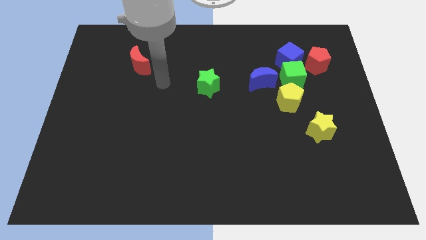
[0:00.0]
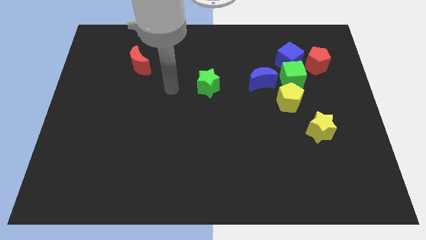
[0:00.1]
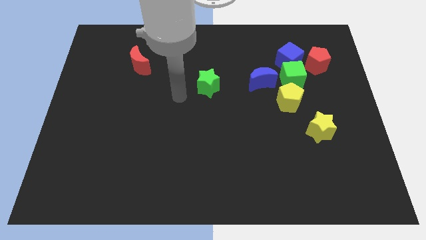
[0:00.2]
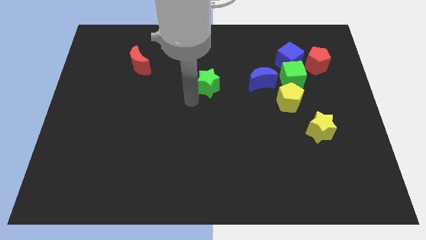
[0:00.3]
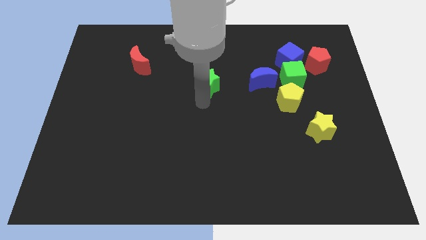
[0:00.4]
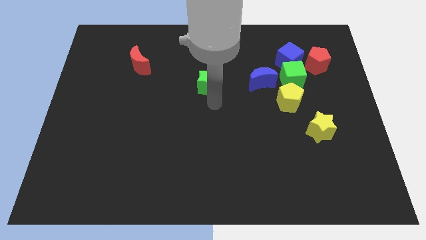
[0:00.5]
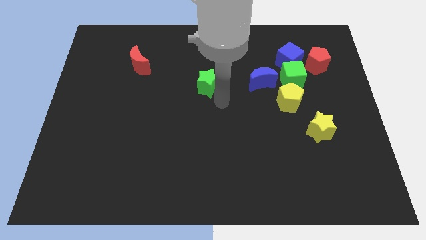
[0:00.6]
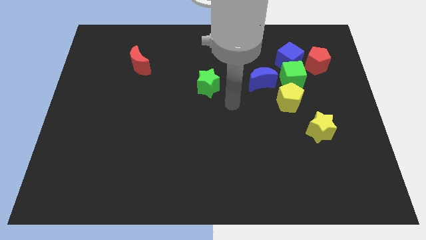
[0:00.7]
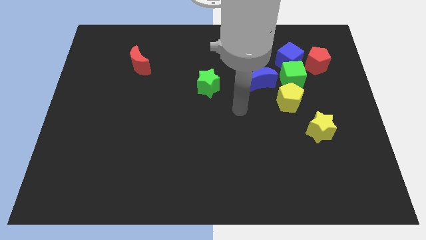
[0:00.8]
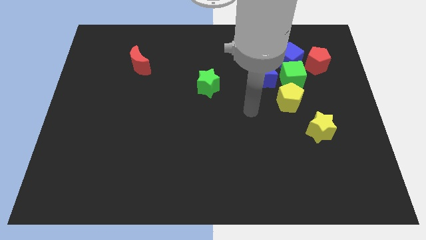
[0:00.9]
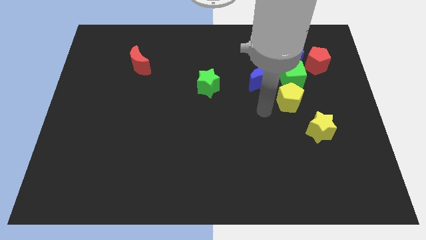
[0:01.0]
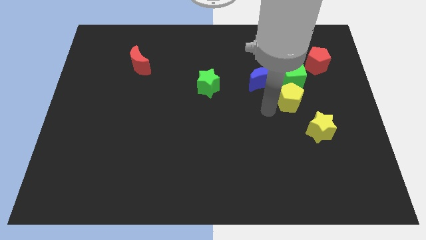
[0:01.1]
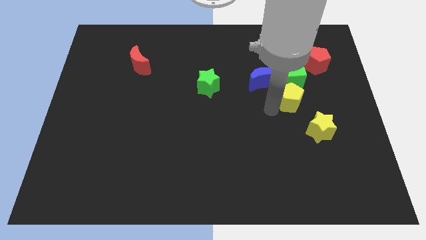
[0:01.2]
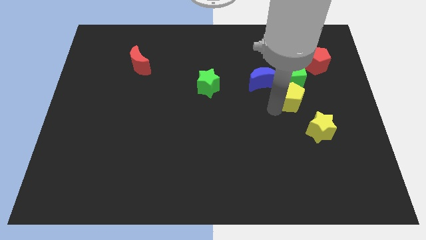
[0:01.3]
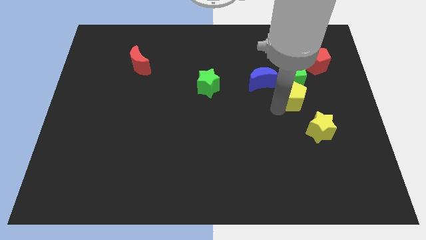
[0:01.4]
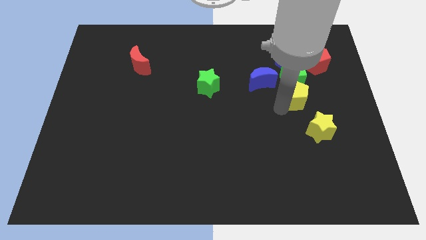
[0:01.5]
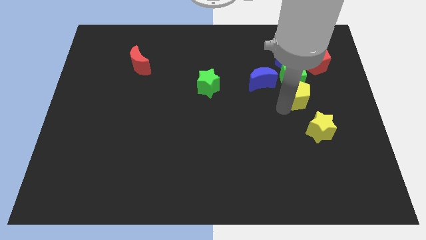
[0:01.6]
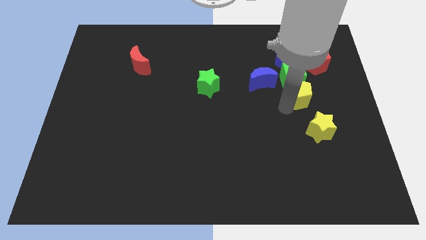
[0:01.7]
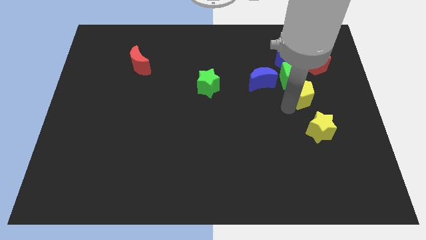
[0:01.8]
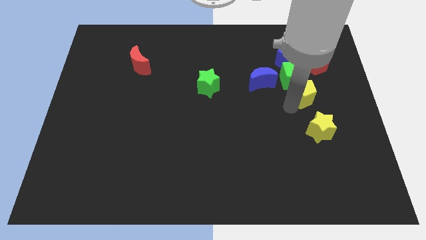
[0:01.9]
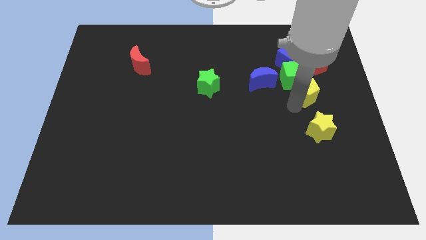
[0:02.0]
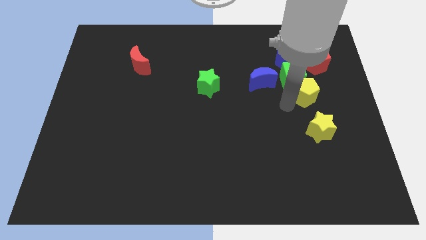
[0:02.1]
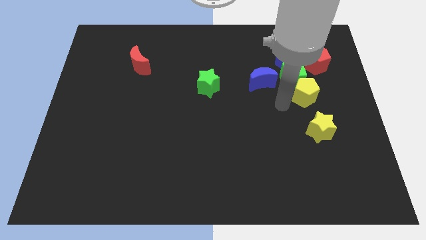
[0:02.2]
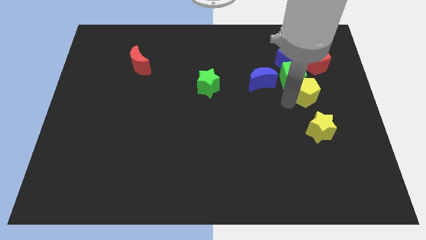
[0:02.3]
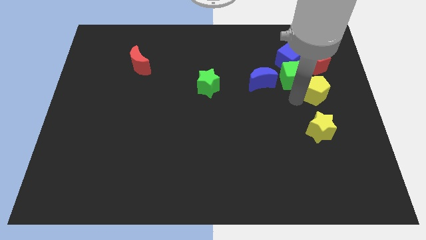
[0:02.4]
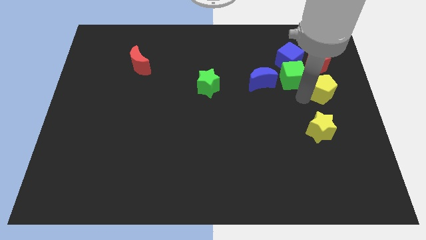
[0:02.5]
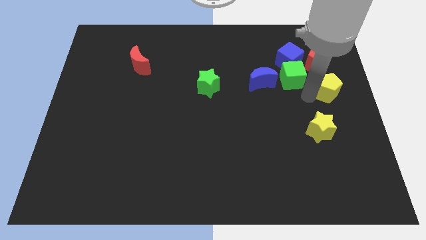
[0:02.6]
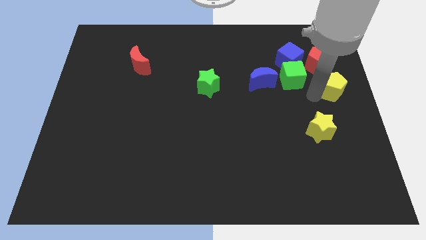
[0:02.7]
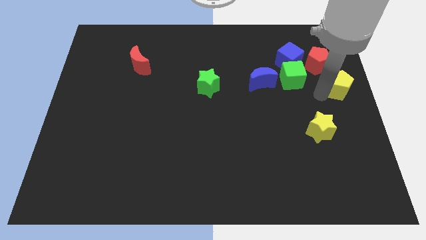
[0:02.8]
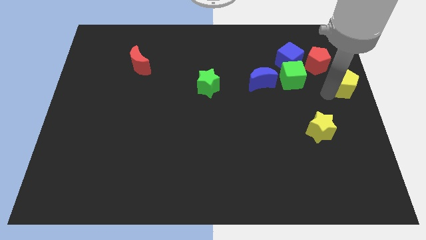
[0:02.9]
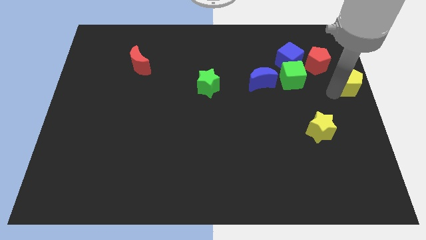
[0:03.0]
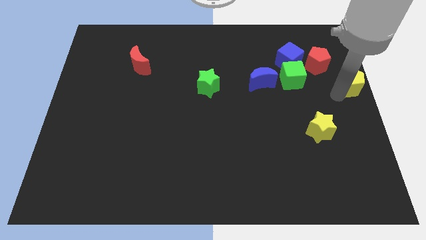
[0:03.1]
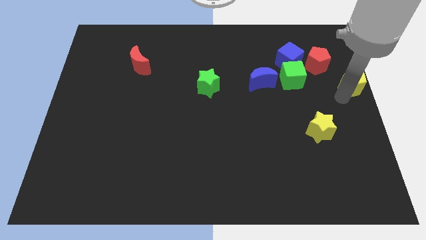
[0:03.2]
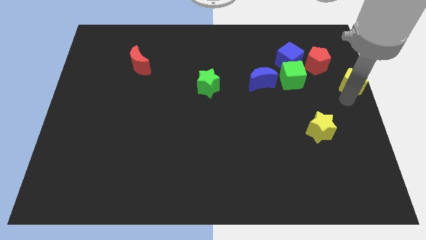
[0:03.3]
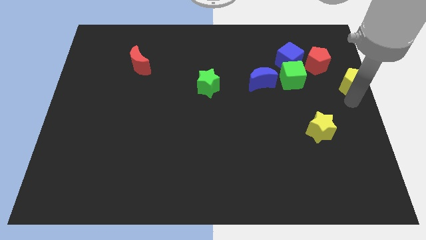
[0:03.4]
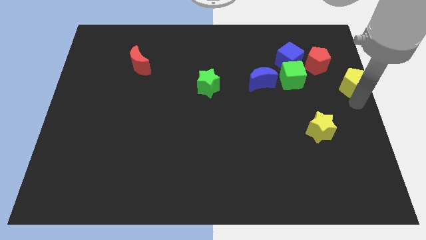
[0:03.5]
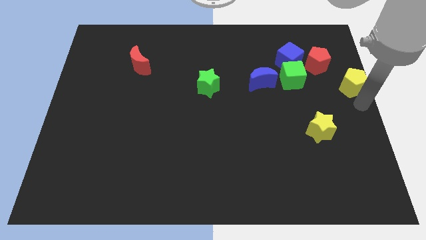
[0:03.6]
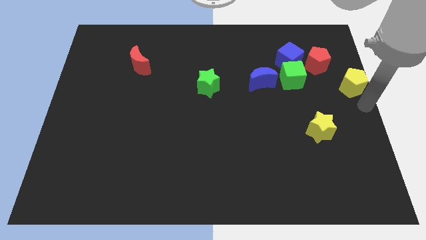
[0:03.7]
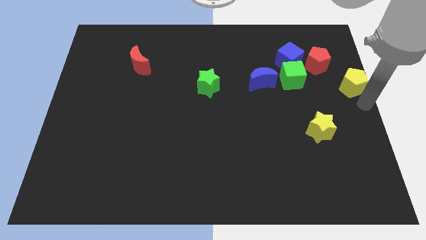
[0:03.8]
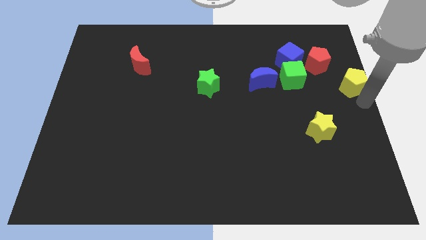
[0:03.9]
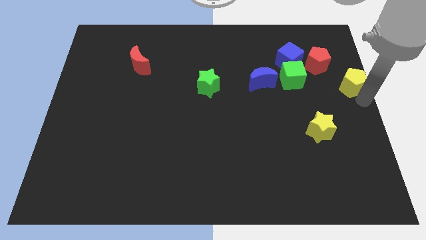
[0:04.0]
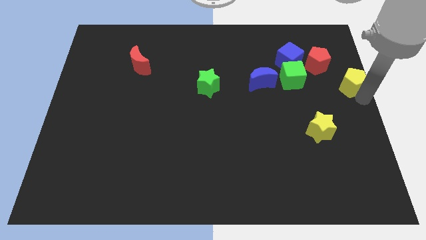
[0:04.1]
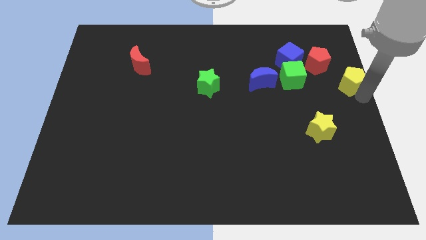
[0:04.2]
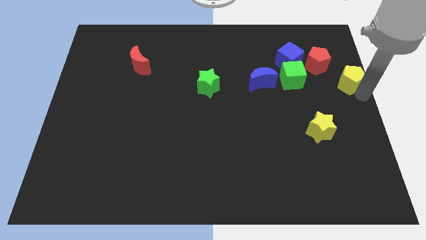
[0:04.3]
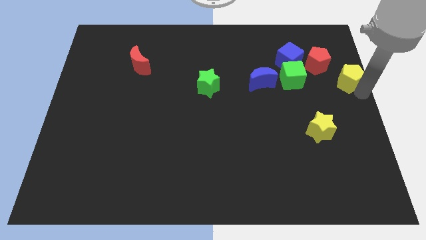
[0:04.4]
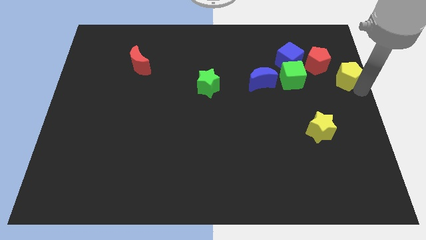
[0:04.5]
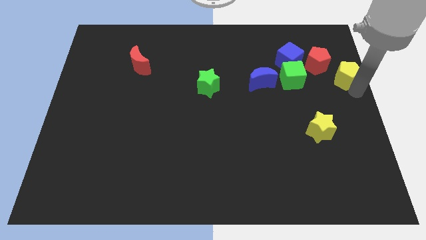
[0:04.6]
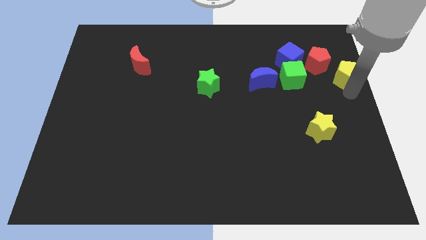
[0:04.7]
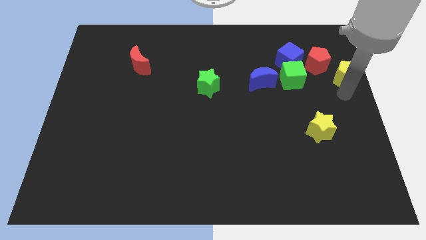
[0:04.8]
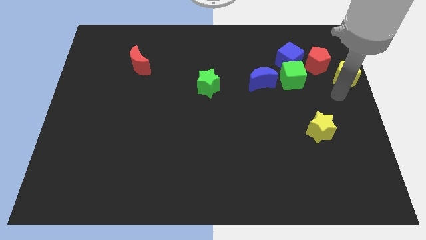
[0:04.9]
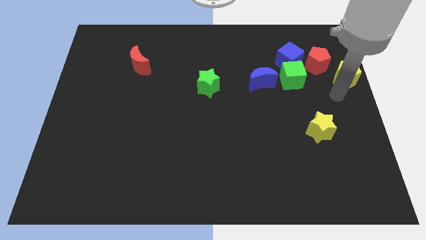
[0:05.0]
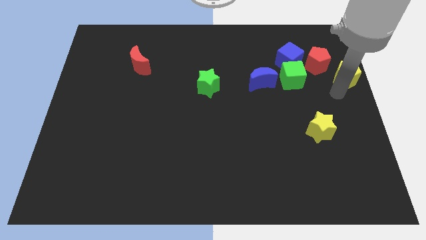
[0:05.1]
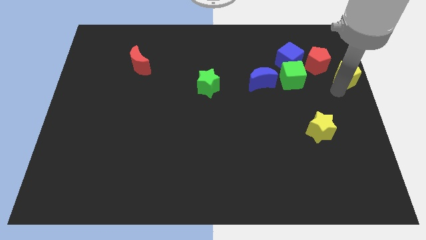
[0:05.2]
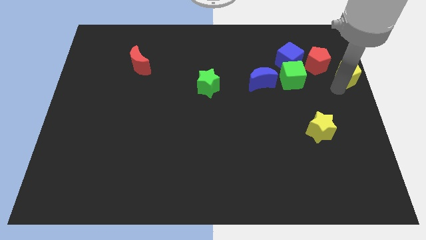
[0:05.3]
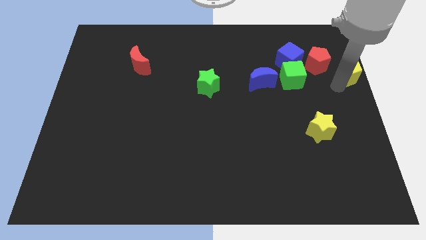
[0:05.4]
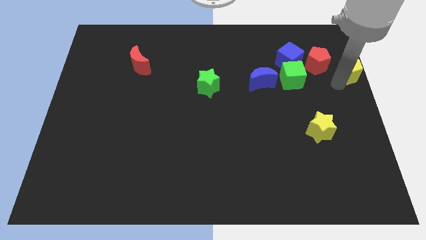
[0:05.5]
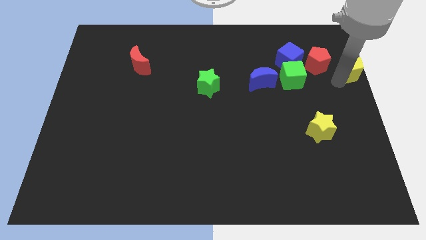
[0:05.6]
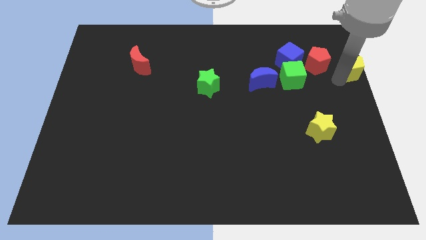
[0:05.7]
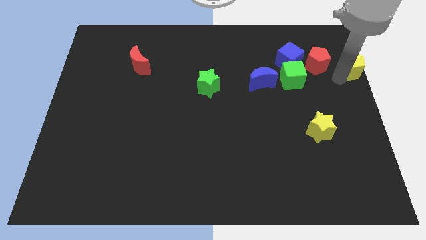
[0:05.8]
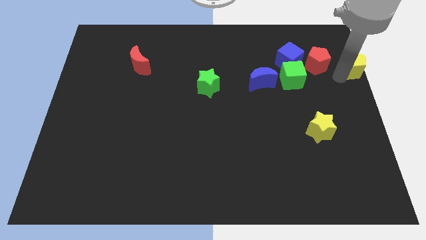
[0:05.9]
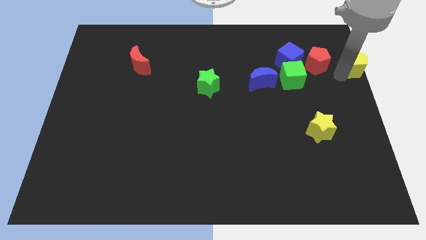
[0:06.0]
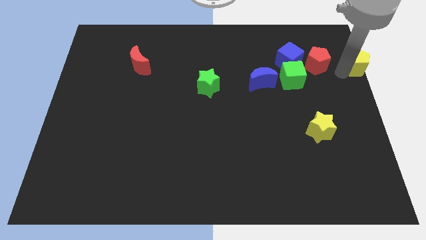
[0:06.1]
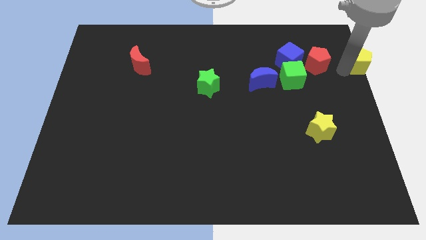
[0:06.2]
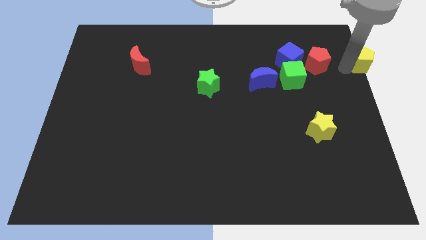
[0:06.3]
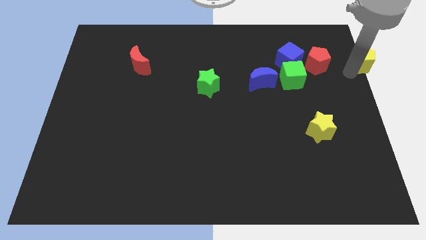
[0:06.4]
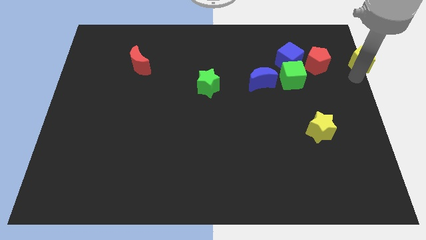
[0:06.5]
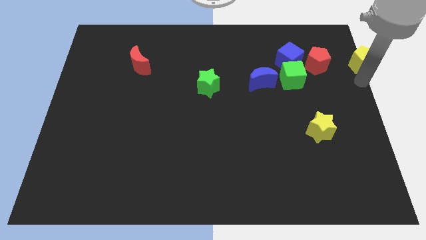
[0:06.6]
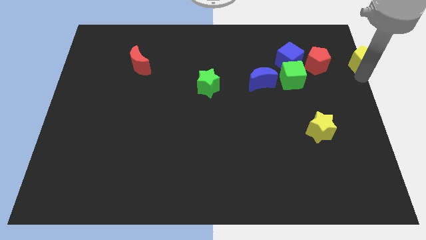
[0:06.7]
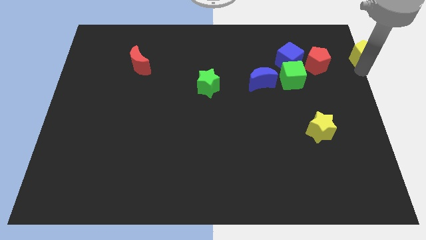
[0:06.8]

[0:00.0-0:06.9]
slide the yellow pentagon to the upper right corner

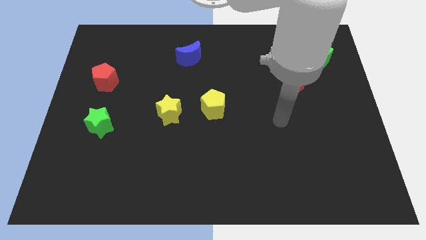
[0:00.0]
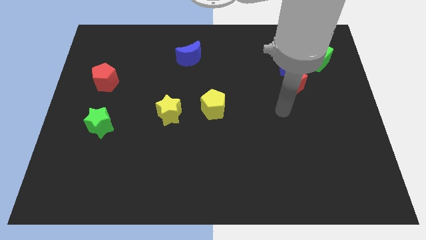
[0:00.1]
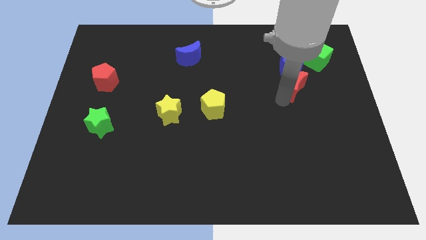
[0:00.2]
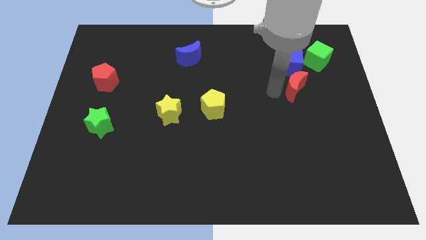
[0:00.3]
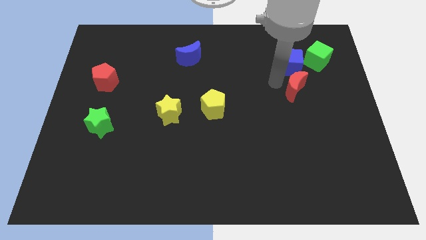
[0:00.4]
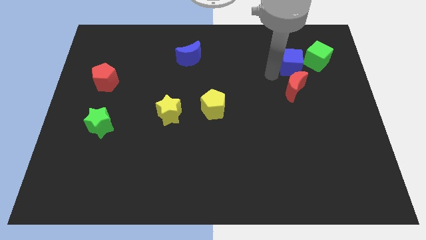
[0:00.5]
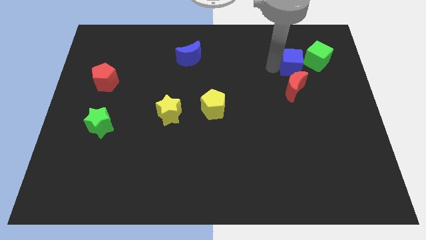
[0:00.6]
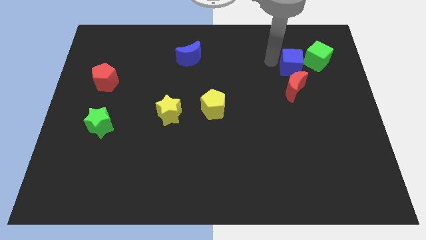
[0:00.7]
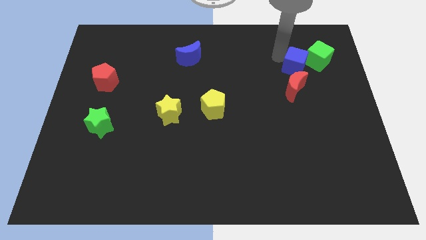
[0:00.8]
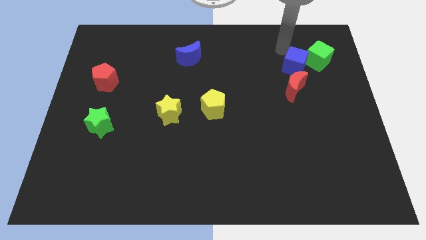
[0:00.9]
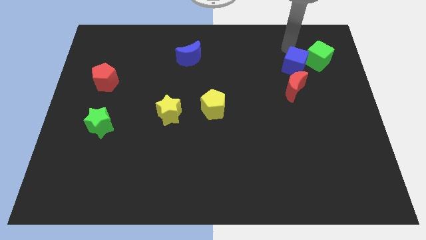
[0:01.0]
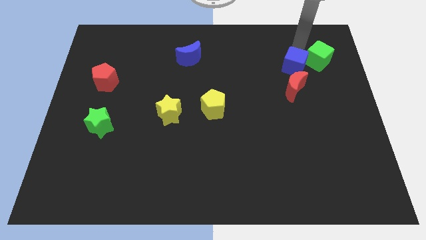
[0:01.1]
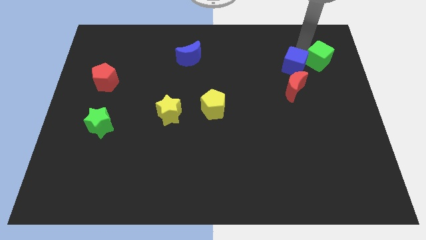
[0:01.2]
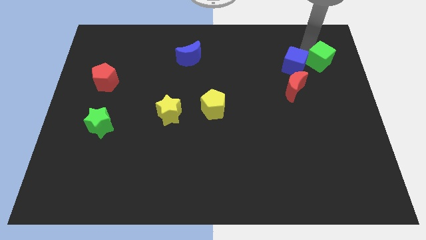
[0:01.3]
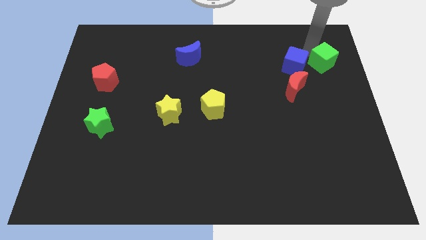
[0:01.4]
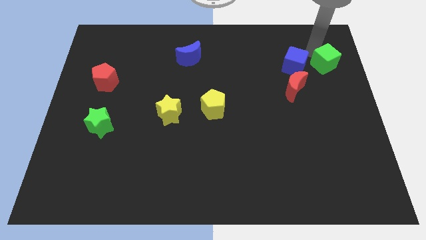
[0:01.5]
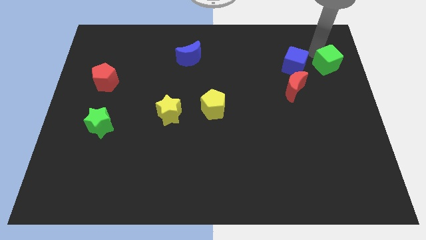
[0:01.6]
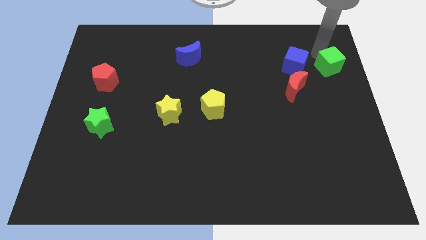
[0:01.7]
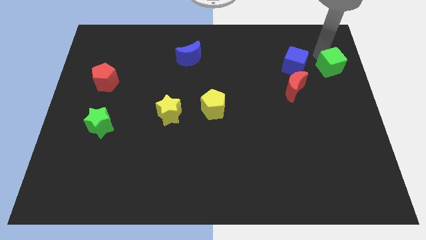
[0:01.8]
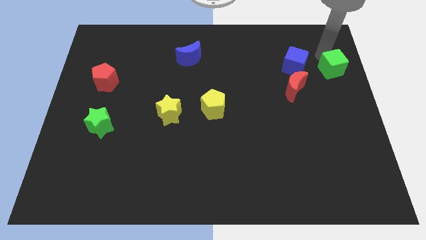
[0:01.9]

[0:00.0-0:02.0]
push the green cube to the right side
